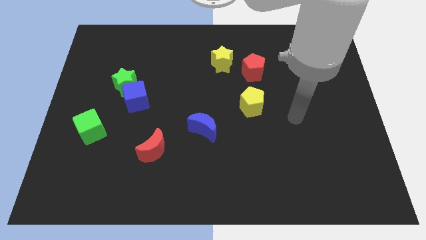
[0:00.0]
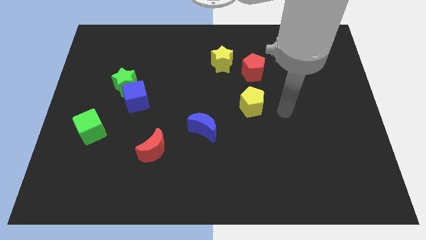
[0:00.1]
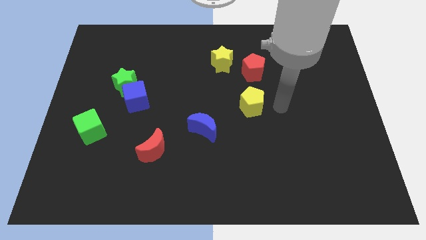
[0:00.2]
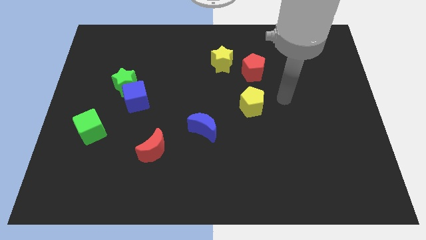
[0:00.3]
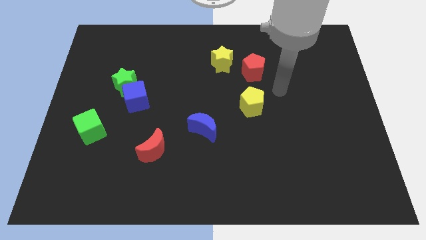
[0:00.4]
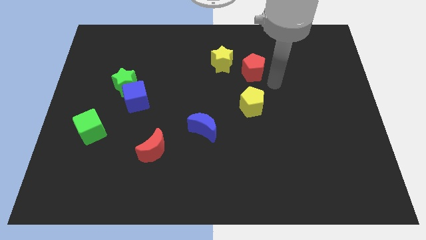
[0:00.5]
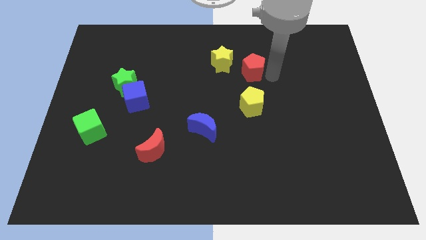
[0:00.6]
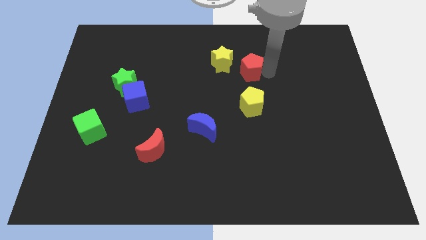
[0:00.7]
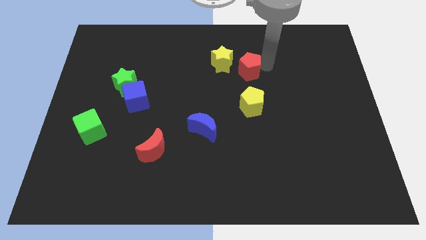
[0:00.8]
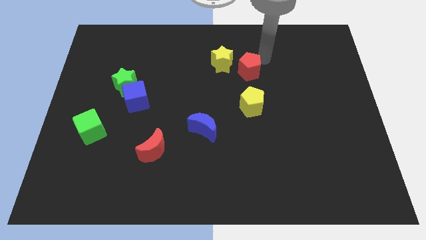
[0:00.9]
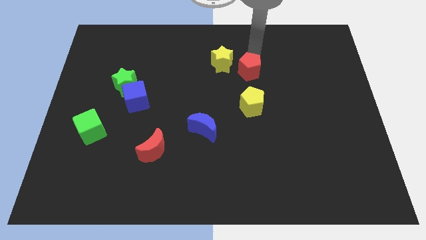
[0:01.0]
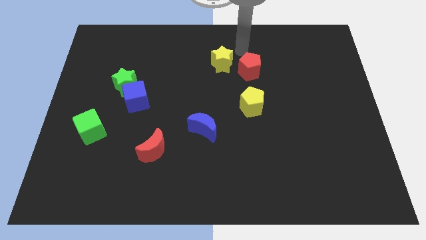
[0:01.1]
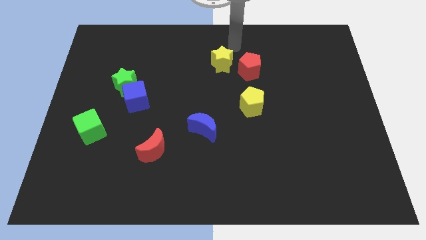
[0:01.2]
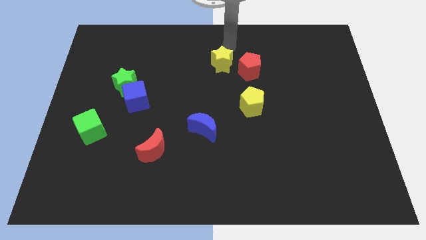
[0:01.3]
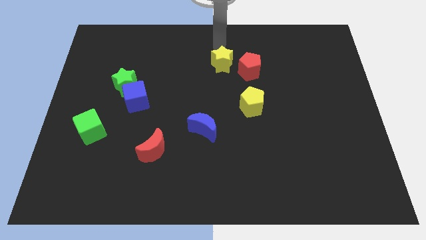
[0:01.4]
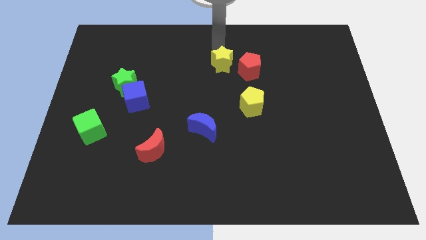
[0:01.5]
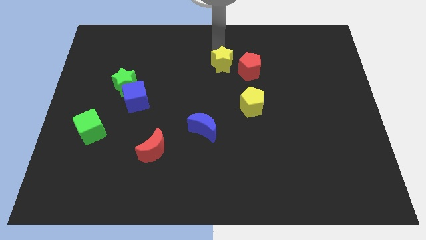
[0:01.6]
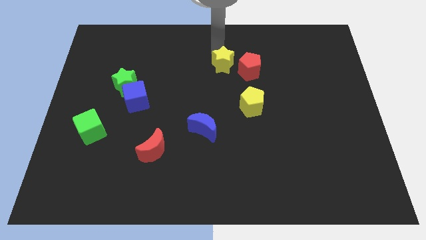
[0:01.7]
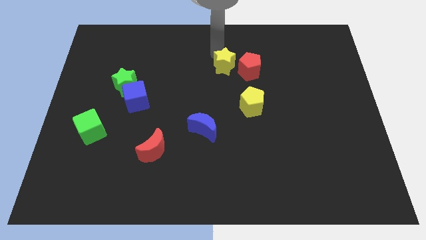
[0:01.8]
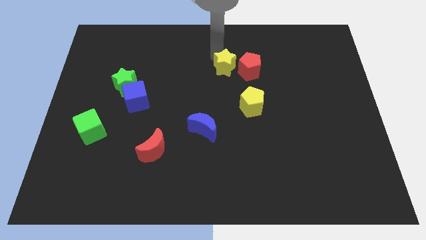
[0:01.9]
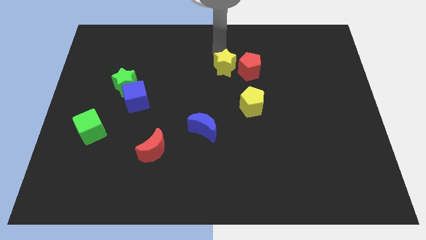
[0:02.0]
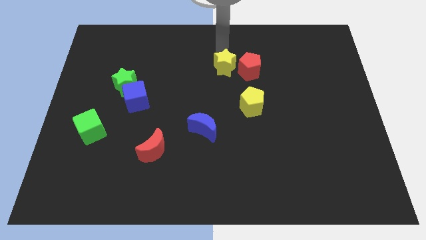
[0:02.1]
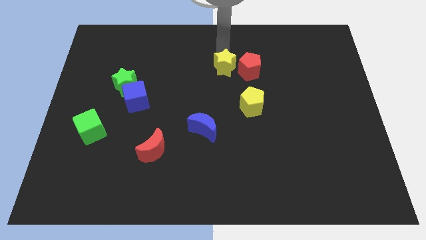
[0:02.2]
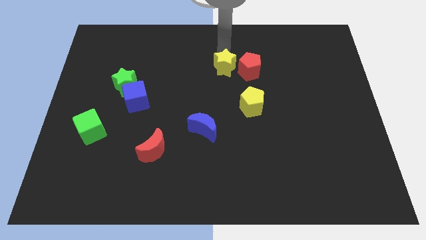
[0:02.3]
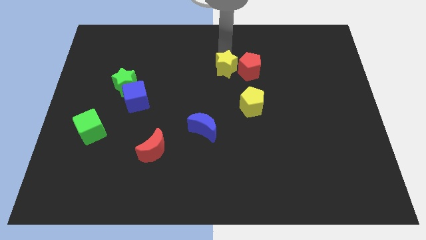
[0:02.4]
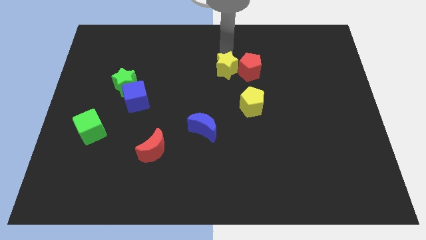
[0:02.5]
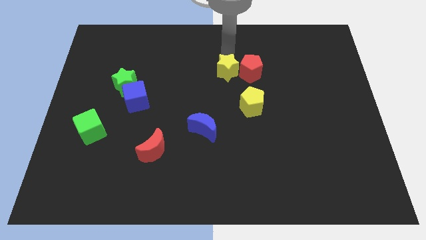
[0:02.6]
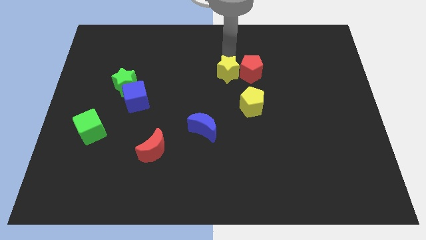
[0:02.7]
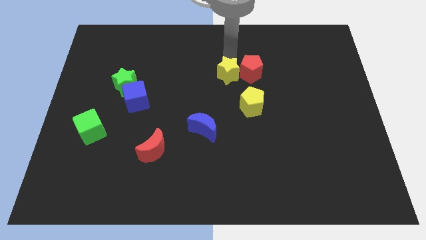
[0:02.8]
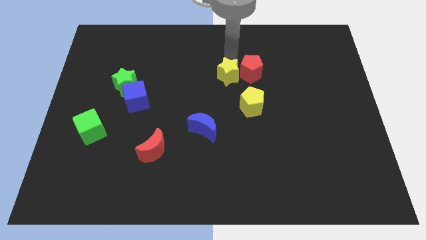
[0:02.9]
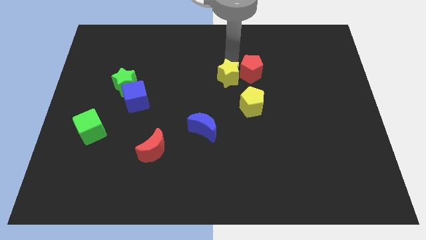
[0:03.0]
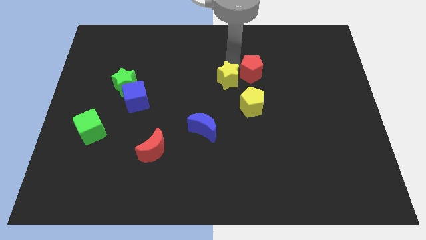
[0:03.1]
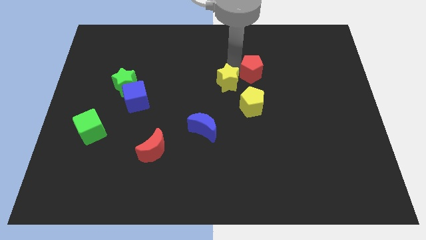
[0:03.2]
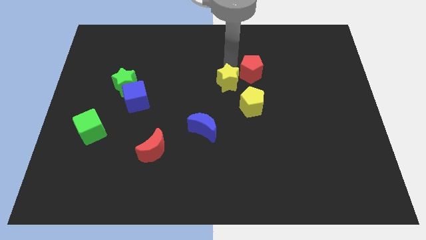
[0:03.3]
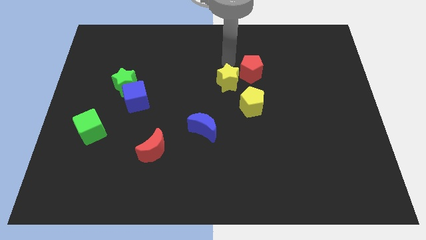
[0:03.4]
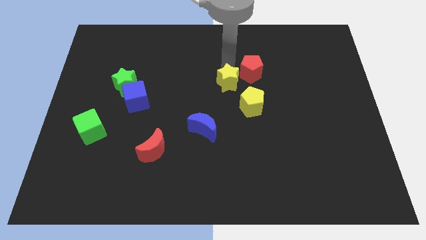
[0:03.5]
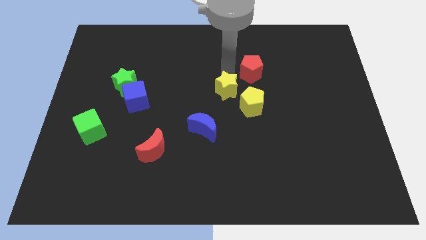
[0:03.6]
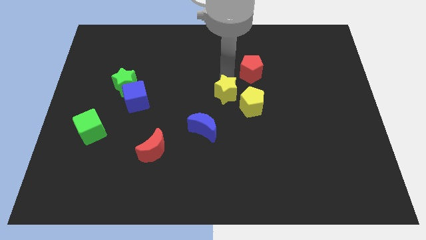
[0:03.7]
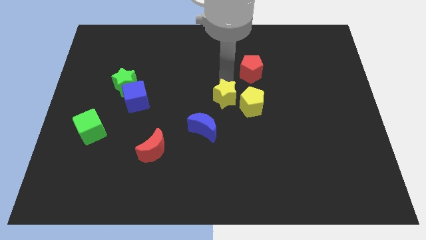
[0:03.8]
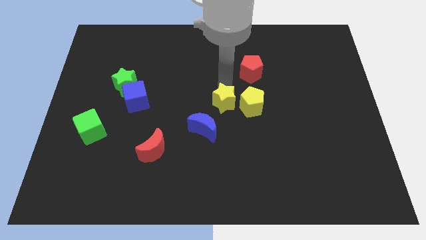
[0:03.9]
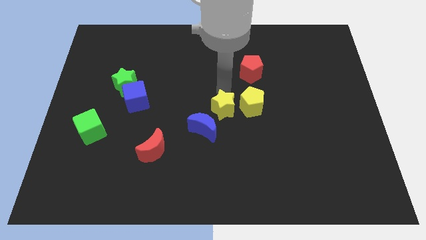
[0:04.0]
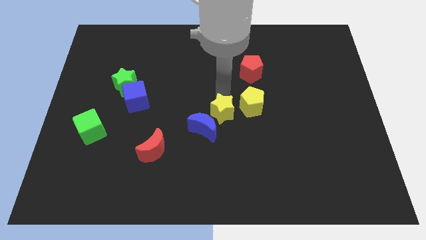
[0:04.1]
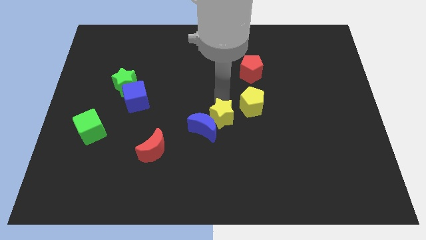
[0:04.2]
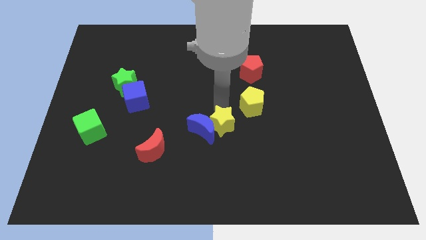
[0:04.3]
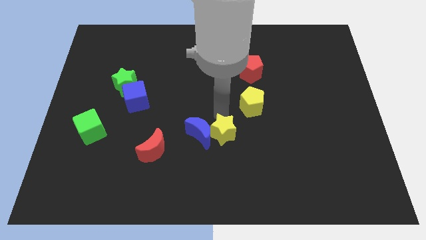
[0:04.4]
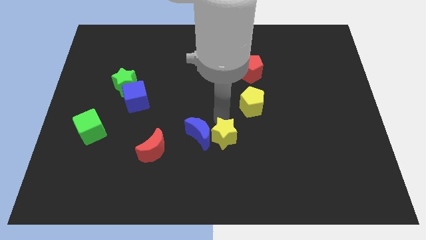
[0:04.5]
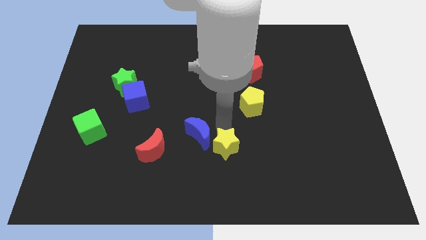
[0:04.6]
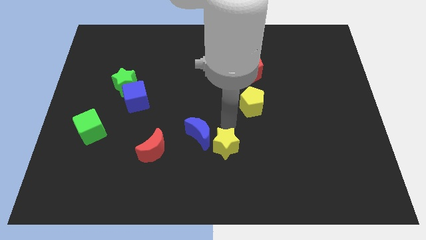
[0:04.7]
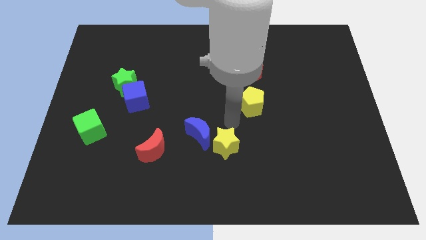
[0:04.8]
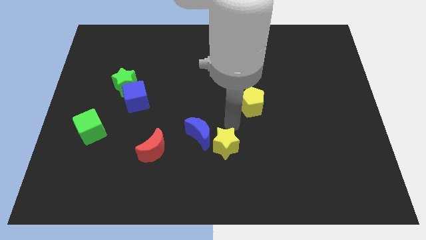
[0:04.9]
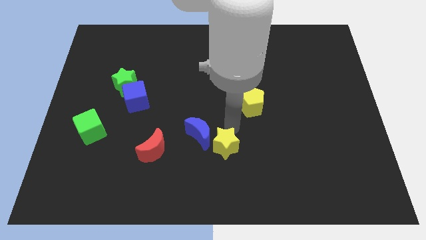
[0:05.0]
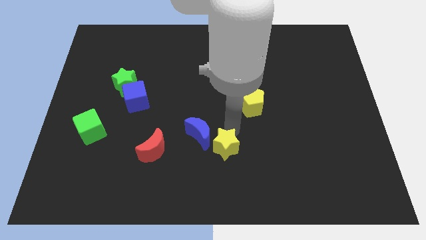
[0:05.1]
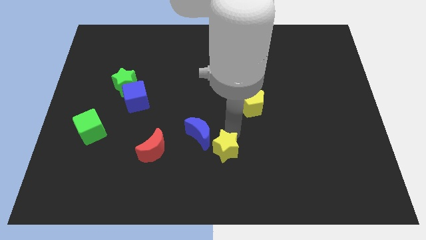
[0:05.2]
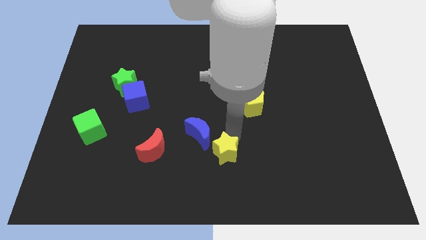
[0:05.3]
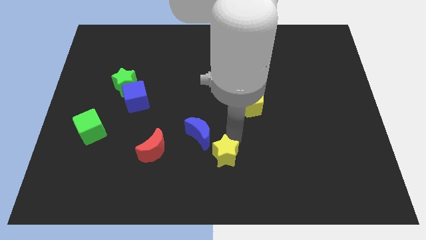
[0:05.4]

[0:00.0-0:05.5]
slide the yellow star to the bottom

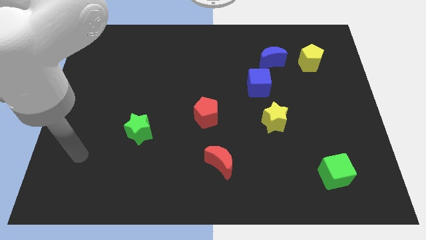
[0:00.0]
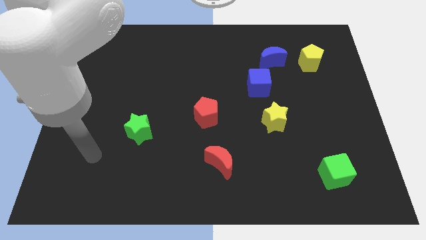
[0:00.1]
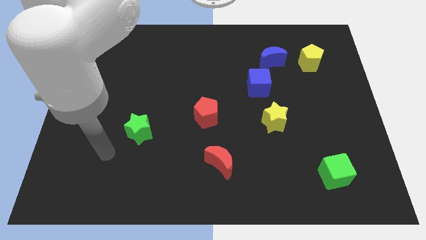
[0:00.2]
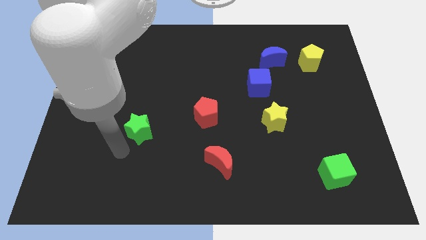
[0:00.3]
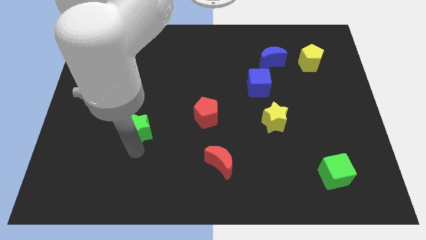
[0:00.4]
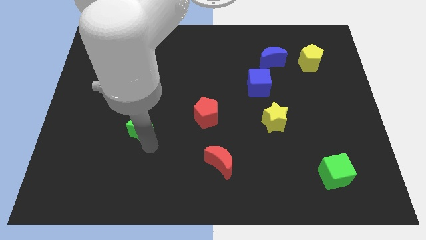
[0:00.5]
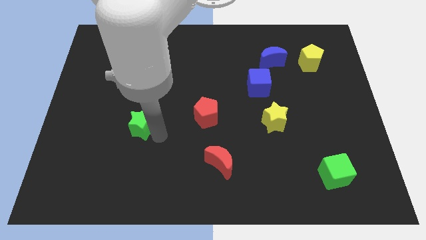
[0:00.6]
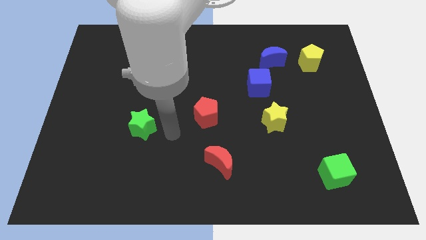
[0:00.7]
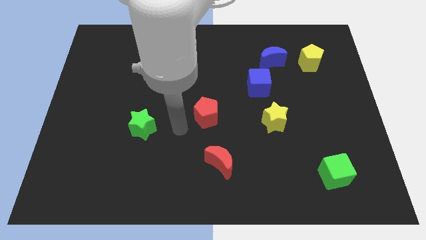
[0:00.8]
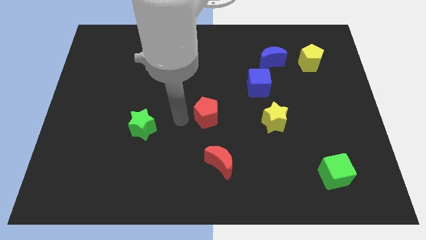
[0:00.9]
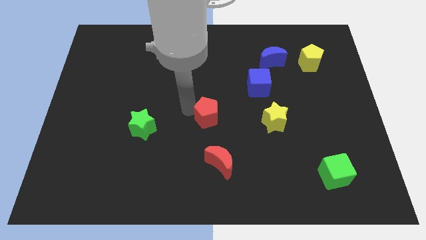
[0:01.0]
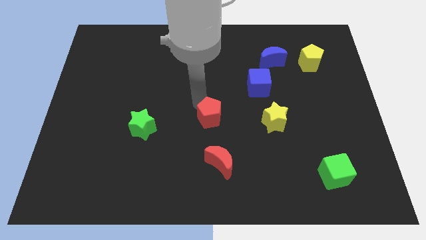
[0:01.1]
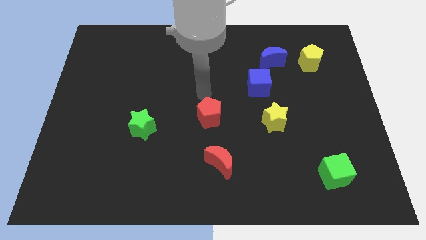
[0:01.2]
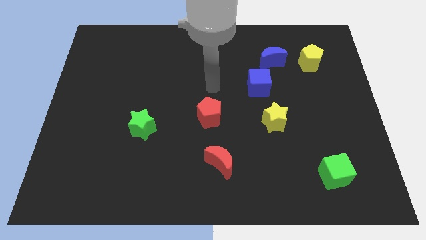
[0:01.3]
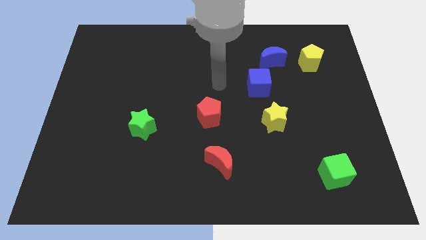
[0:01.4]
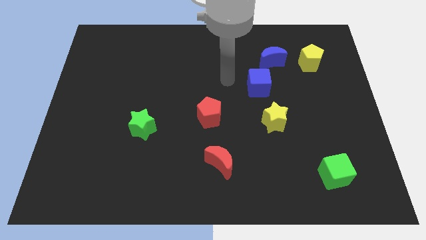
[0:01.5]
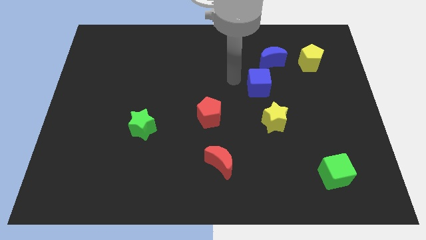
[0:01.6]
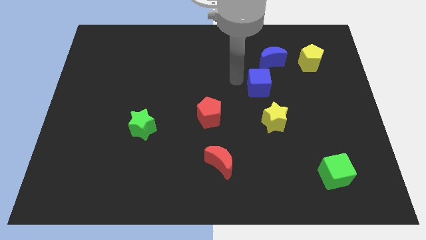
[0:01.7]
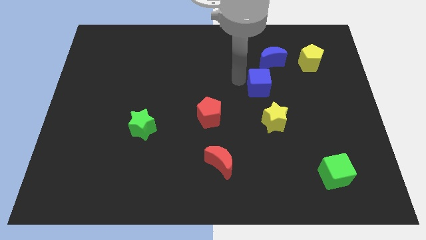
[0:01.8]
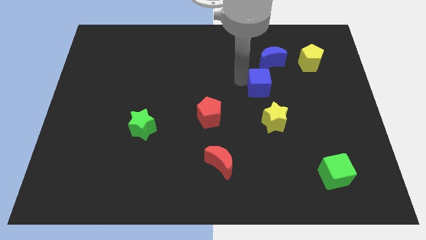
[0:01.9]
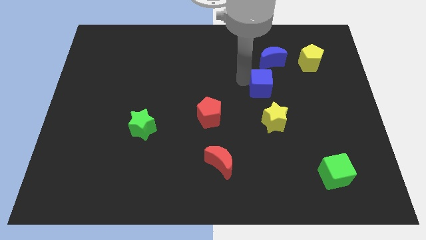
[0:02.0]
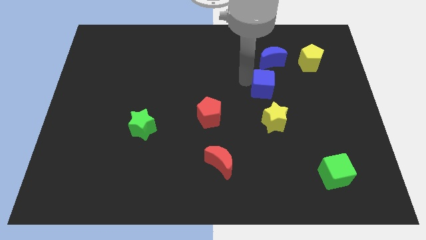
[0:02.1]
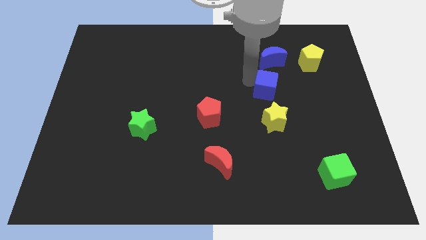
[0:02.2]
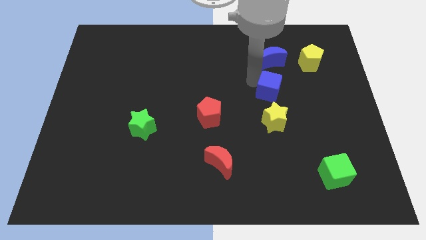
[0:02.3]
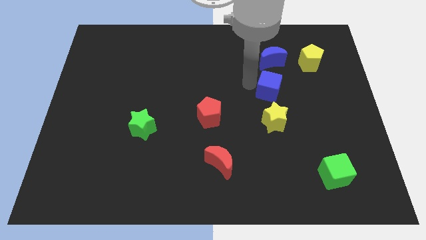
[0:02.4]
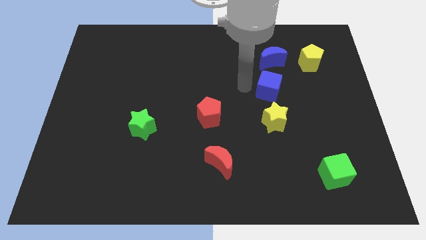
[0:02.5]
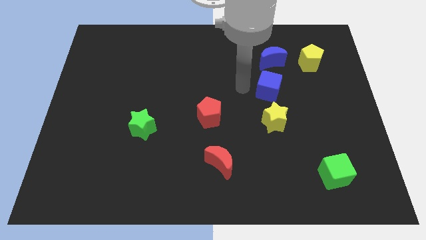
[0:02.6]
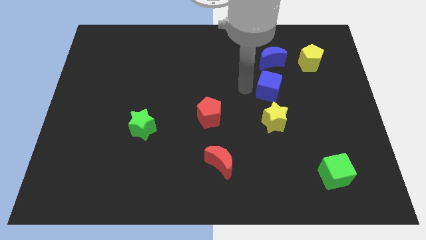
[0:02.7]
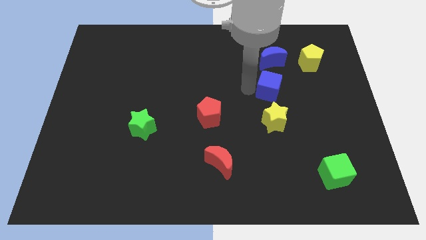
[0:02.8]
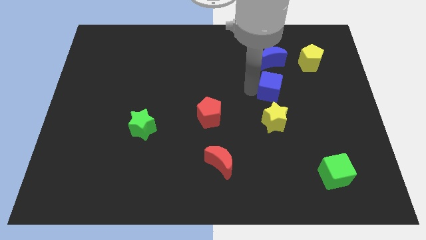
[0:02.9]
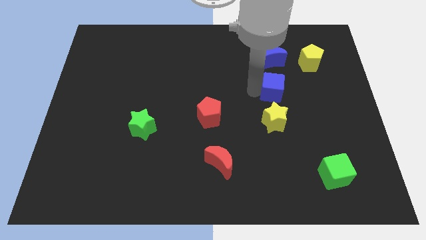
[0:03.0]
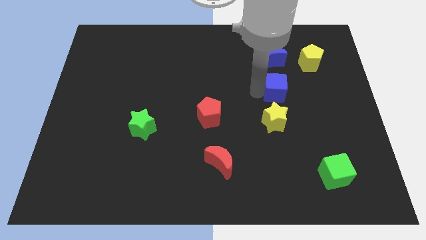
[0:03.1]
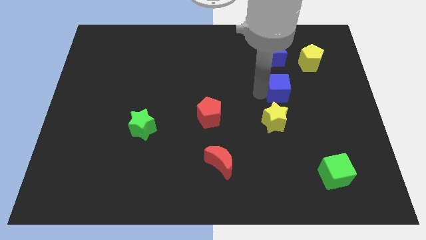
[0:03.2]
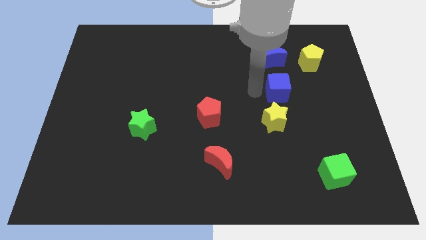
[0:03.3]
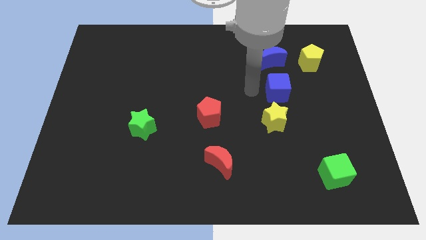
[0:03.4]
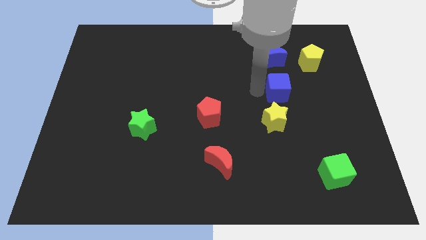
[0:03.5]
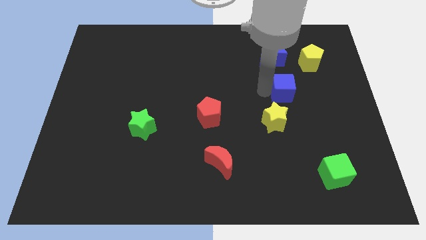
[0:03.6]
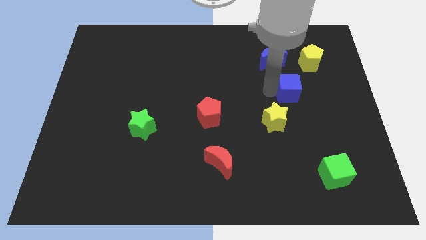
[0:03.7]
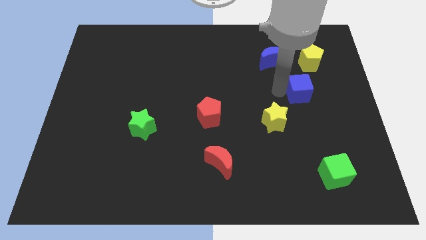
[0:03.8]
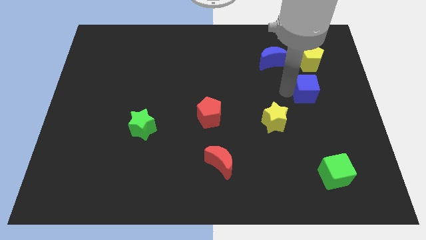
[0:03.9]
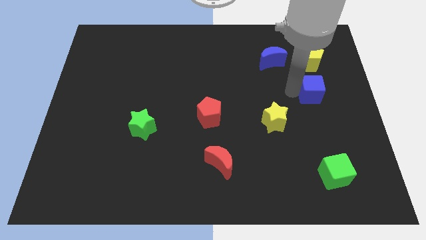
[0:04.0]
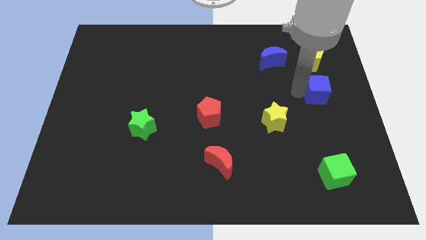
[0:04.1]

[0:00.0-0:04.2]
push the blue cube to the right side
